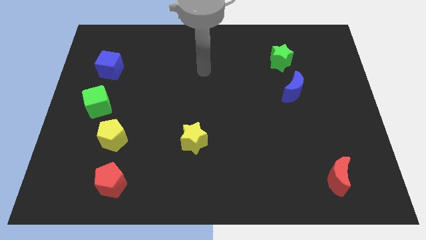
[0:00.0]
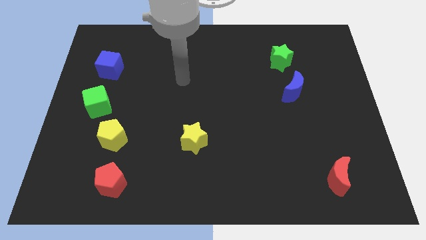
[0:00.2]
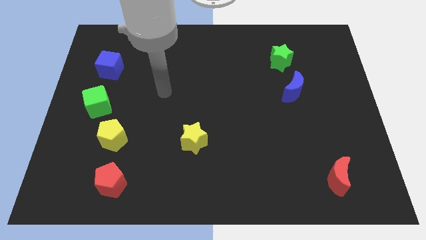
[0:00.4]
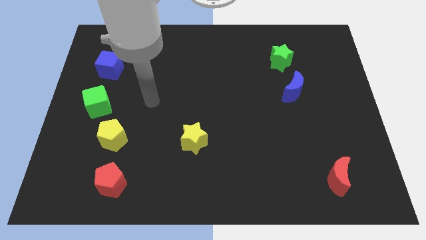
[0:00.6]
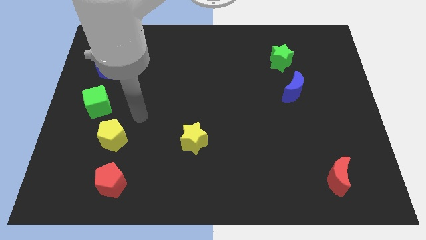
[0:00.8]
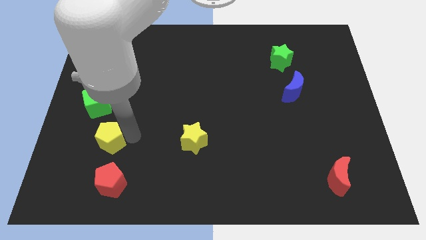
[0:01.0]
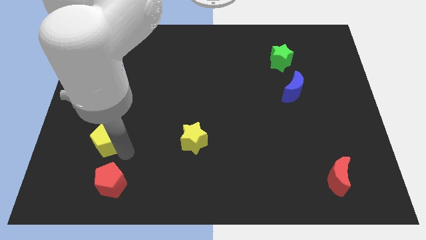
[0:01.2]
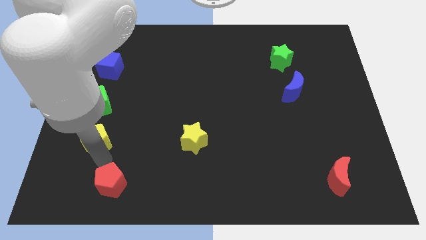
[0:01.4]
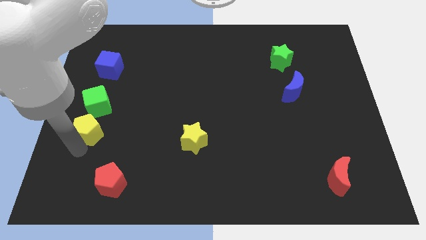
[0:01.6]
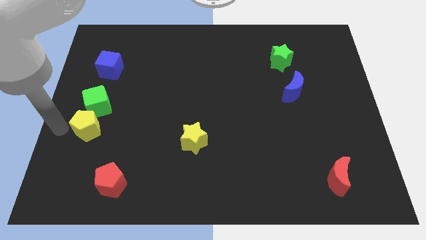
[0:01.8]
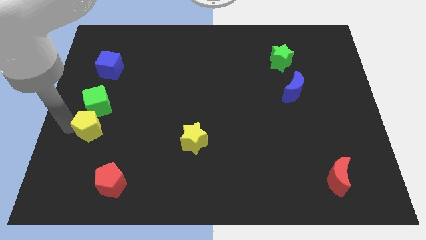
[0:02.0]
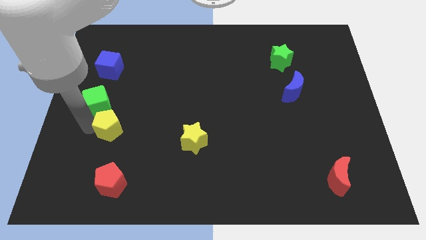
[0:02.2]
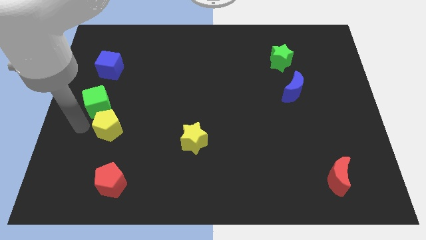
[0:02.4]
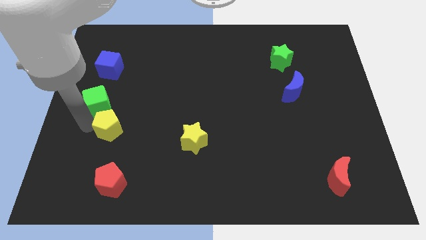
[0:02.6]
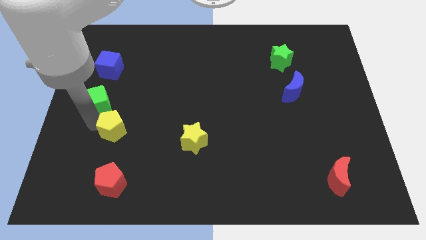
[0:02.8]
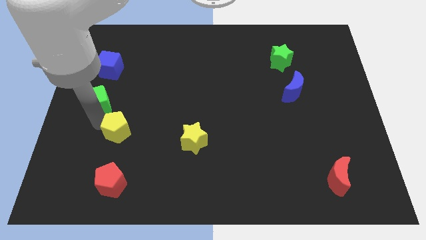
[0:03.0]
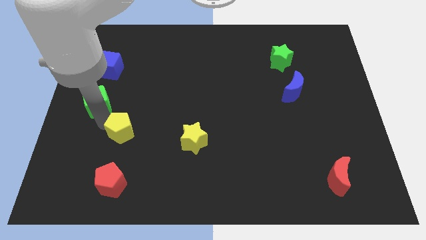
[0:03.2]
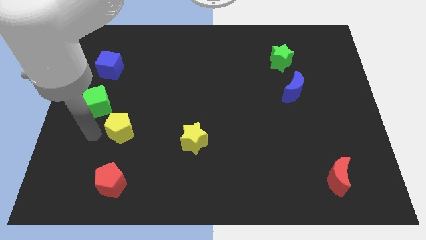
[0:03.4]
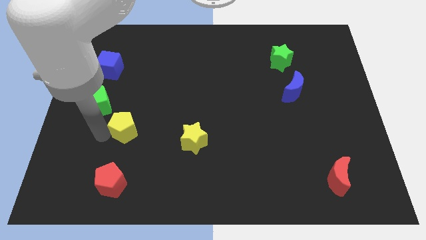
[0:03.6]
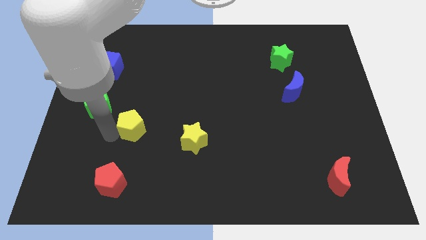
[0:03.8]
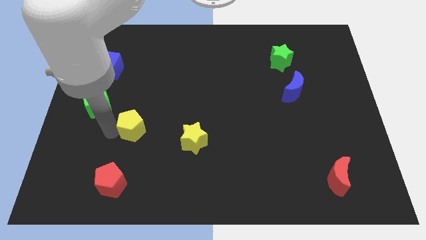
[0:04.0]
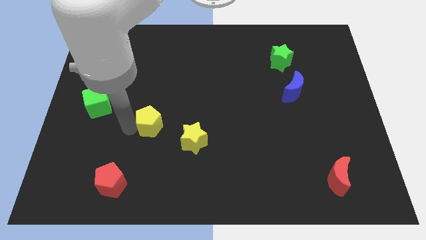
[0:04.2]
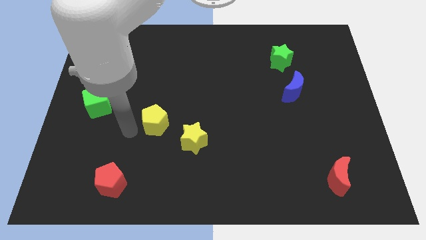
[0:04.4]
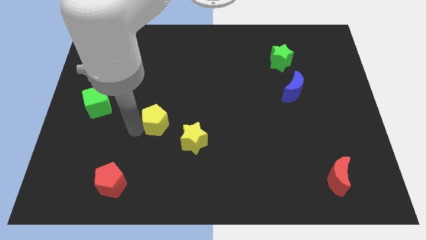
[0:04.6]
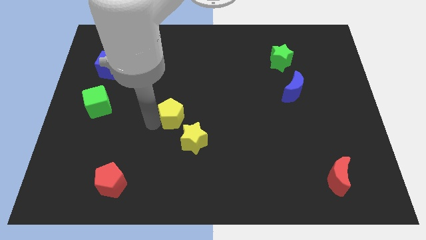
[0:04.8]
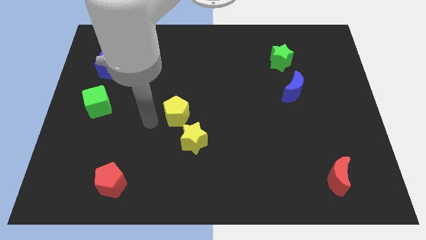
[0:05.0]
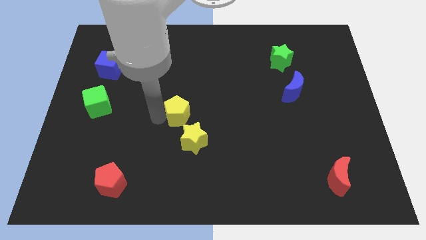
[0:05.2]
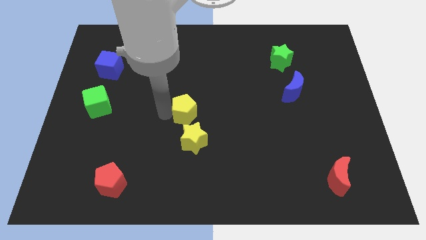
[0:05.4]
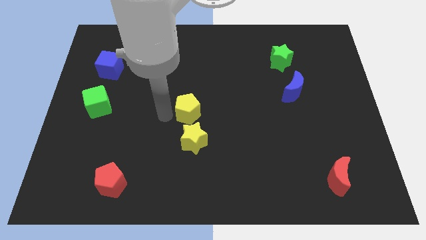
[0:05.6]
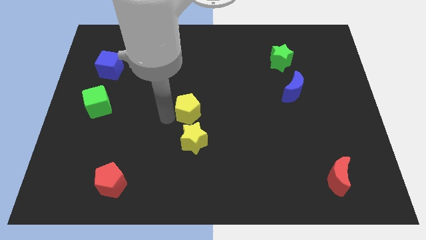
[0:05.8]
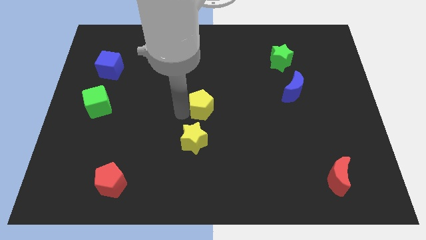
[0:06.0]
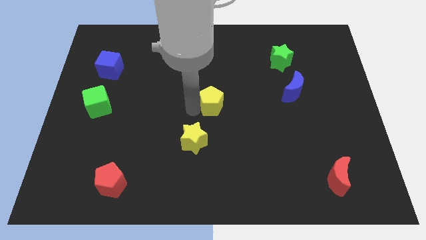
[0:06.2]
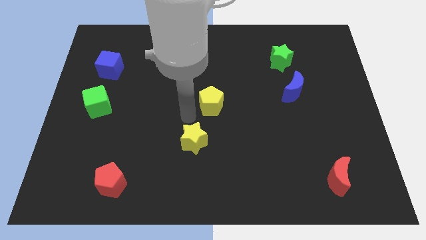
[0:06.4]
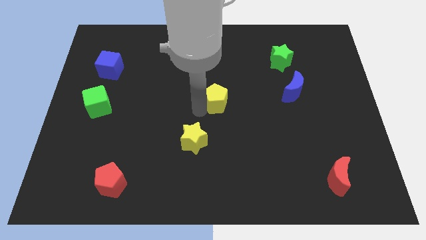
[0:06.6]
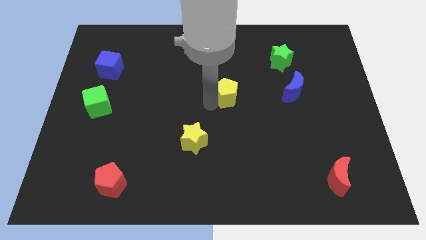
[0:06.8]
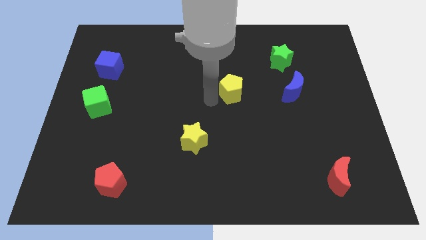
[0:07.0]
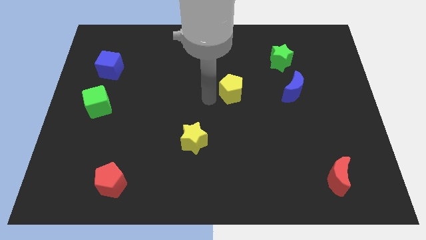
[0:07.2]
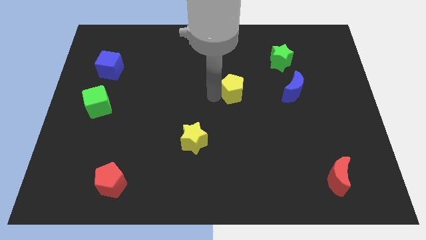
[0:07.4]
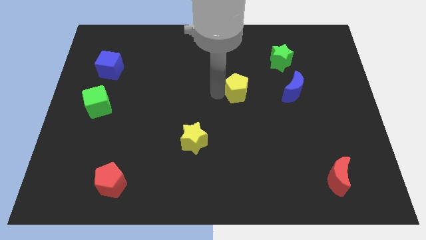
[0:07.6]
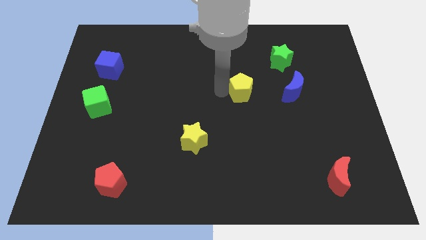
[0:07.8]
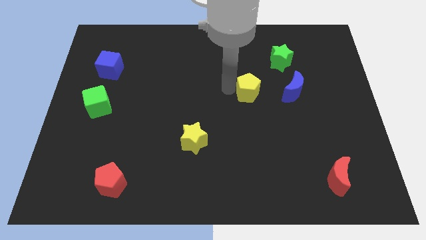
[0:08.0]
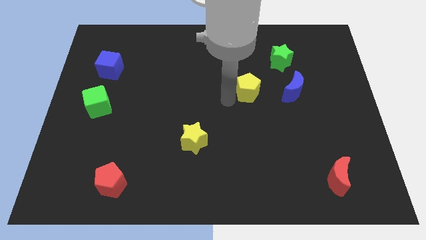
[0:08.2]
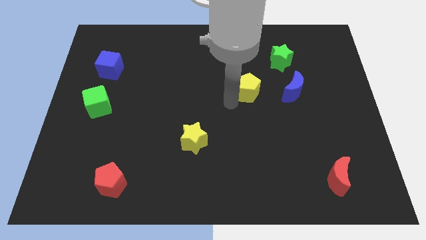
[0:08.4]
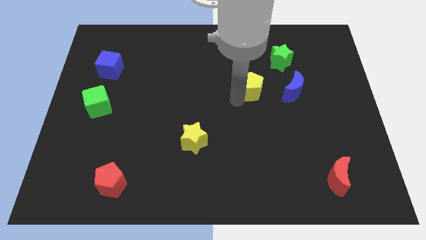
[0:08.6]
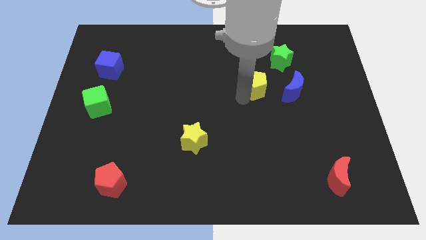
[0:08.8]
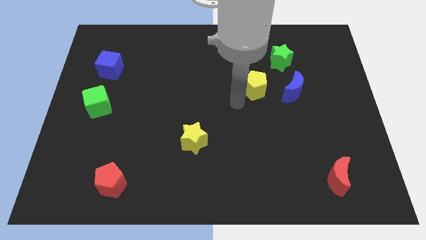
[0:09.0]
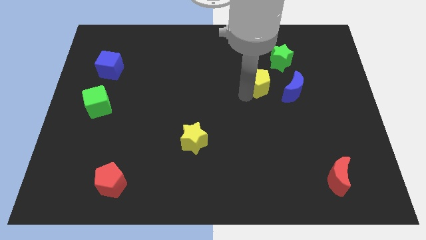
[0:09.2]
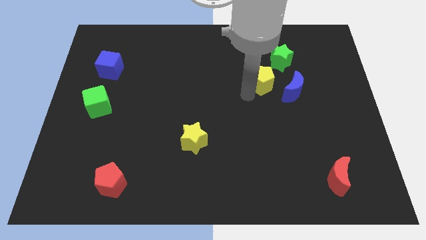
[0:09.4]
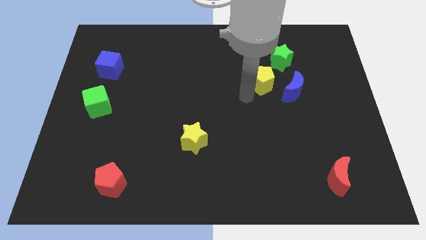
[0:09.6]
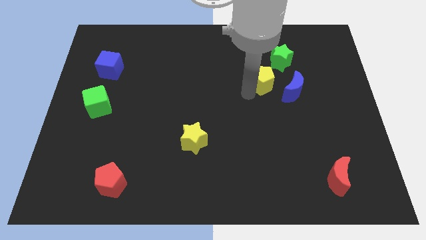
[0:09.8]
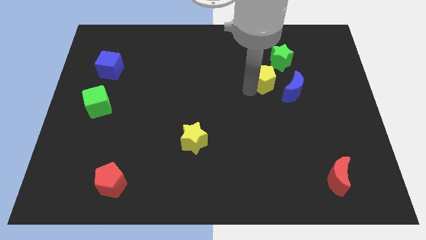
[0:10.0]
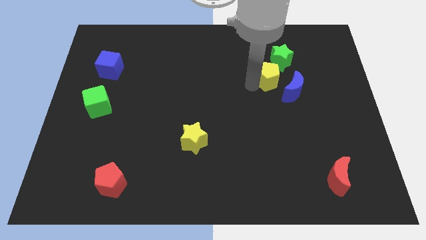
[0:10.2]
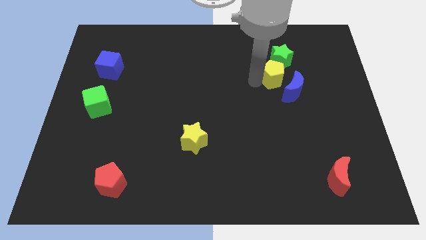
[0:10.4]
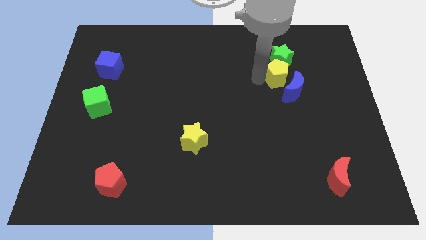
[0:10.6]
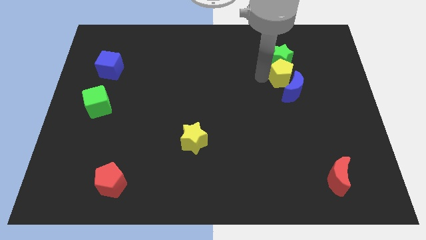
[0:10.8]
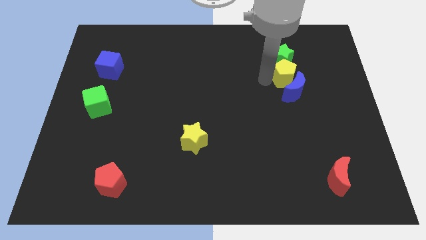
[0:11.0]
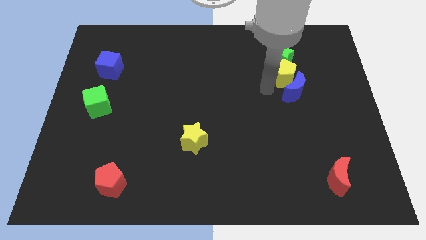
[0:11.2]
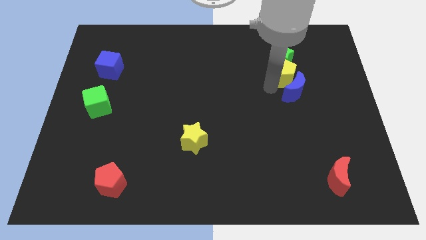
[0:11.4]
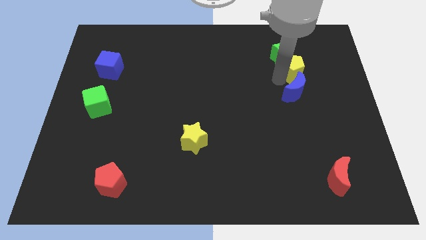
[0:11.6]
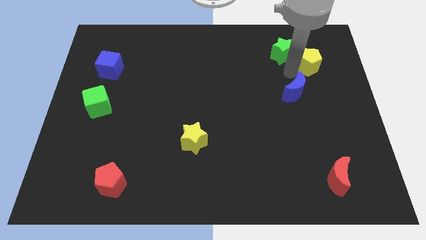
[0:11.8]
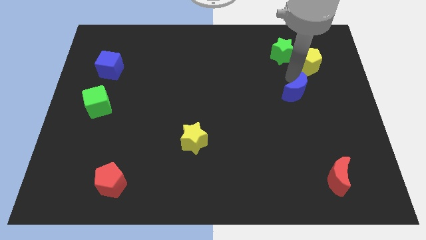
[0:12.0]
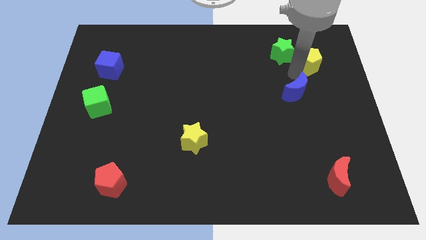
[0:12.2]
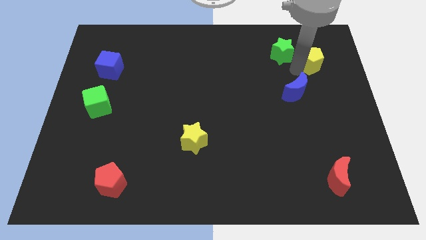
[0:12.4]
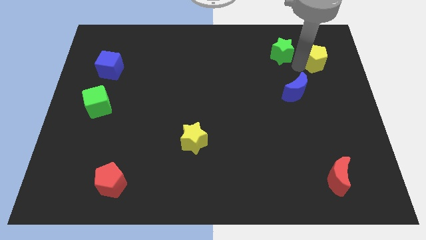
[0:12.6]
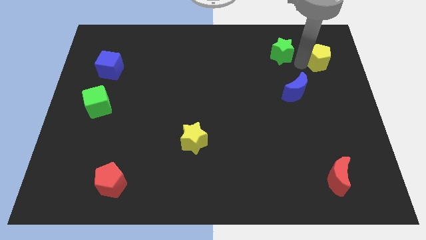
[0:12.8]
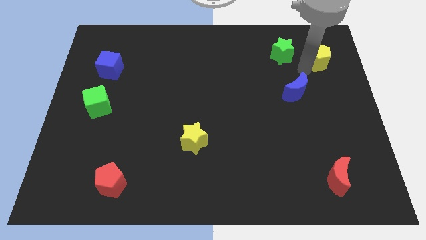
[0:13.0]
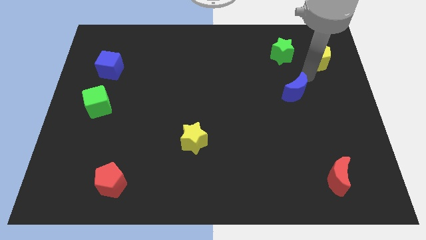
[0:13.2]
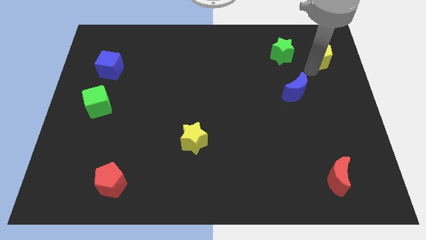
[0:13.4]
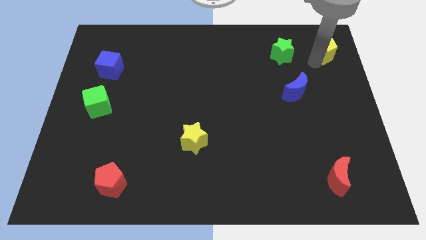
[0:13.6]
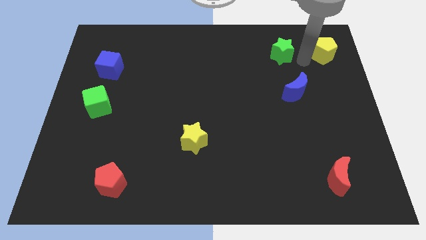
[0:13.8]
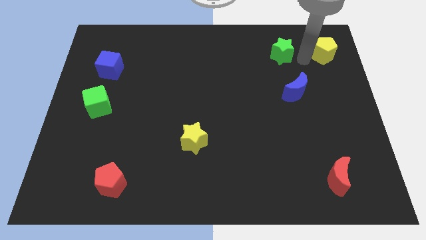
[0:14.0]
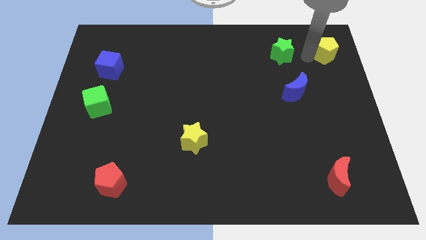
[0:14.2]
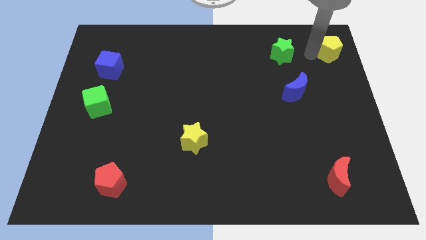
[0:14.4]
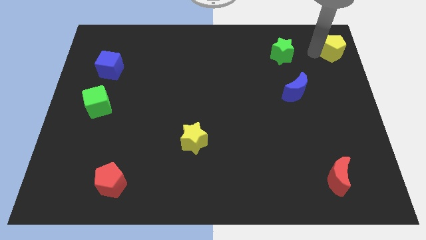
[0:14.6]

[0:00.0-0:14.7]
push the yellow pentagon to the upper right corner
